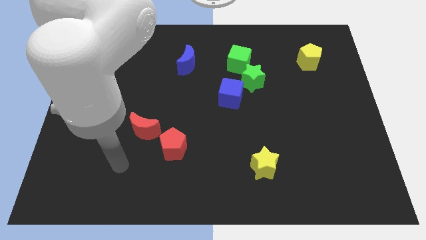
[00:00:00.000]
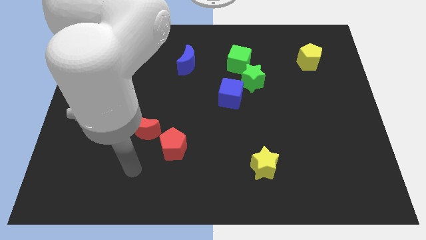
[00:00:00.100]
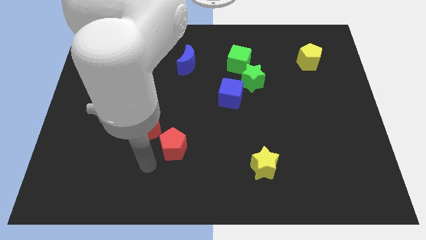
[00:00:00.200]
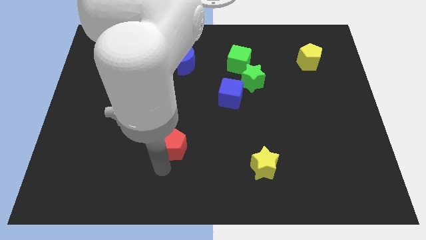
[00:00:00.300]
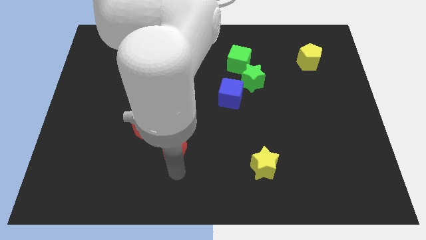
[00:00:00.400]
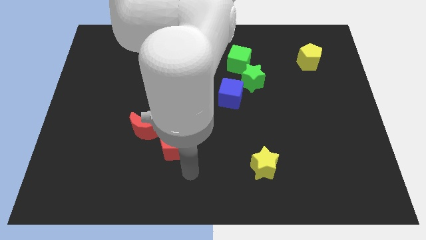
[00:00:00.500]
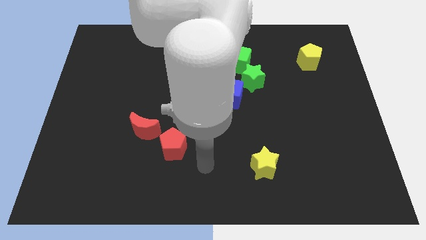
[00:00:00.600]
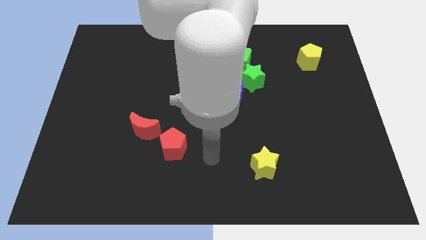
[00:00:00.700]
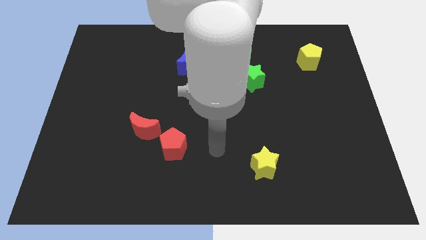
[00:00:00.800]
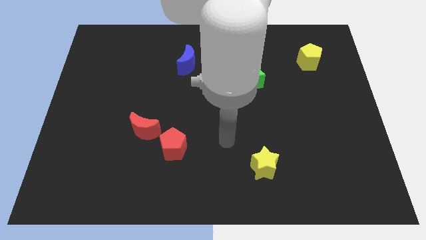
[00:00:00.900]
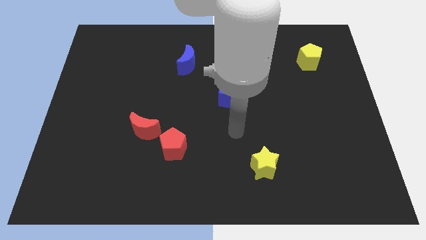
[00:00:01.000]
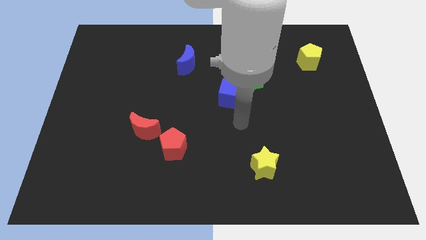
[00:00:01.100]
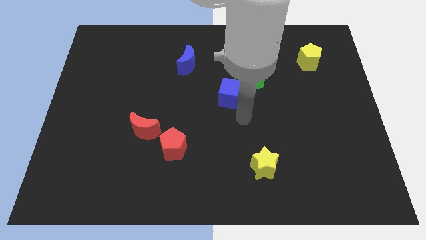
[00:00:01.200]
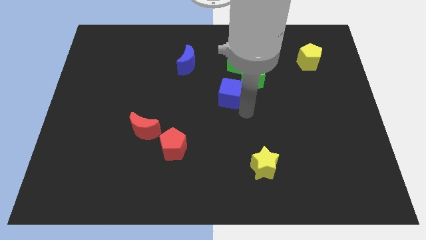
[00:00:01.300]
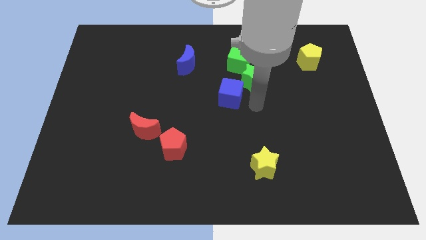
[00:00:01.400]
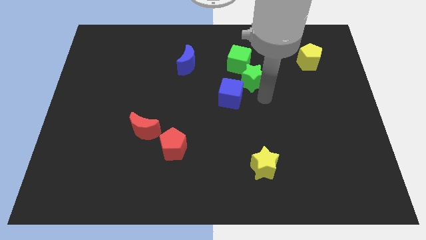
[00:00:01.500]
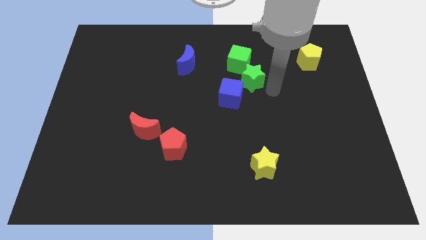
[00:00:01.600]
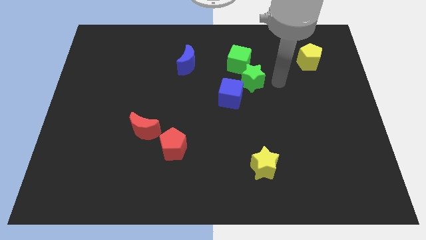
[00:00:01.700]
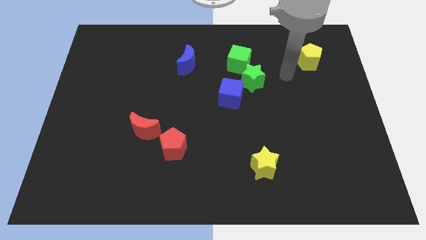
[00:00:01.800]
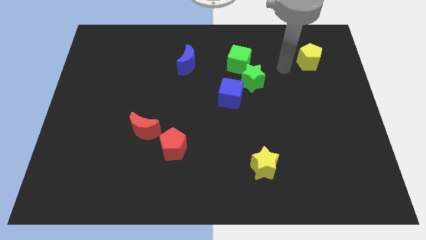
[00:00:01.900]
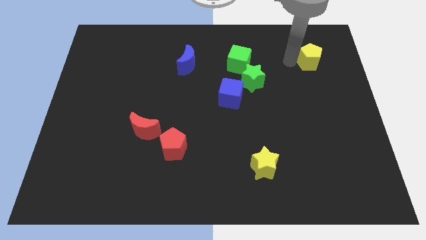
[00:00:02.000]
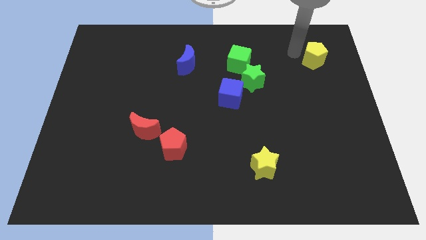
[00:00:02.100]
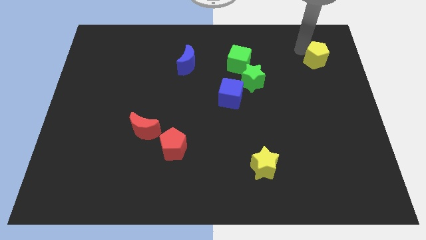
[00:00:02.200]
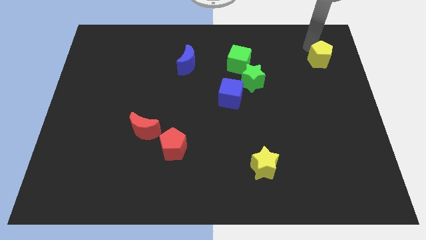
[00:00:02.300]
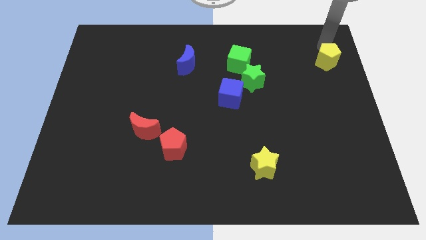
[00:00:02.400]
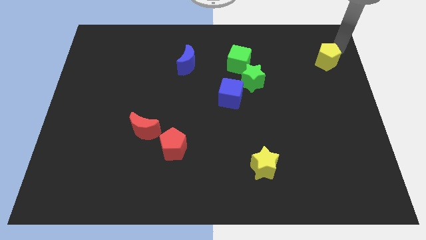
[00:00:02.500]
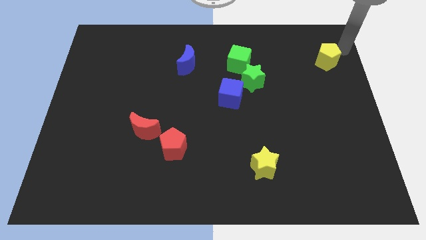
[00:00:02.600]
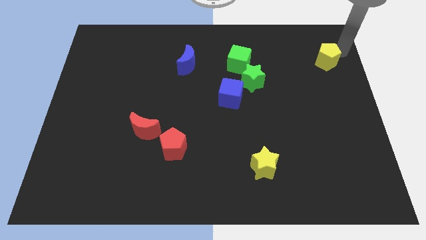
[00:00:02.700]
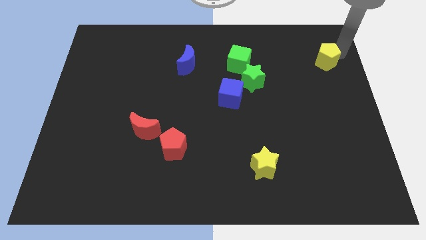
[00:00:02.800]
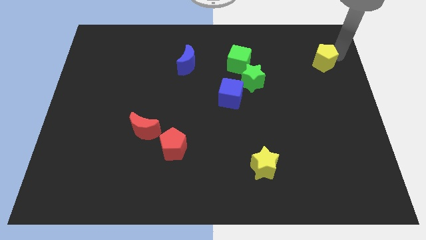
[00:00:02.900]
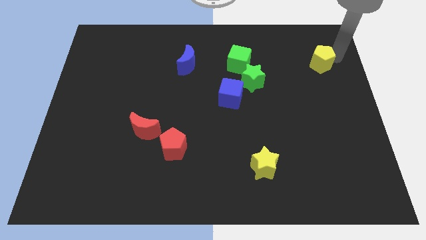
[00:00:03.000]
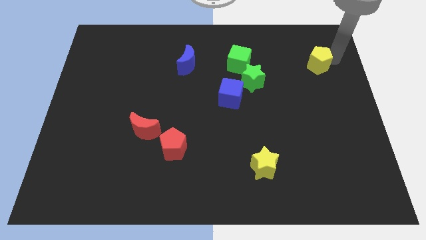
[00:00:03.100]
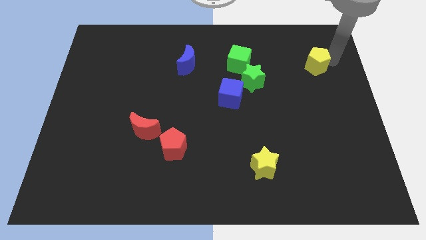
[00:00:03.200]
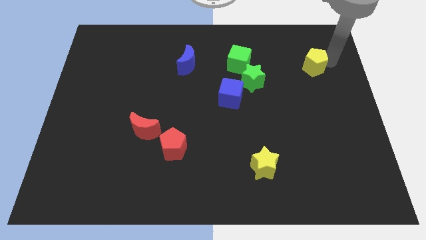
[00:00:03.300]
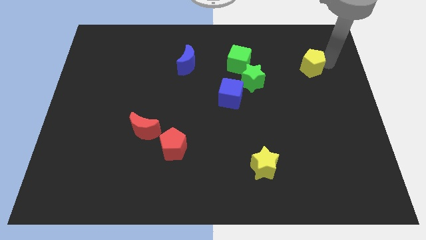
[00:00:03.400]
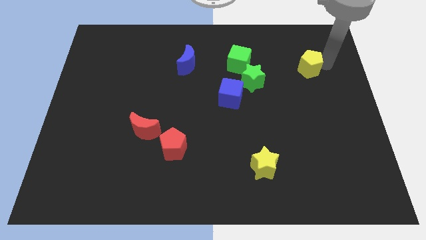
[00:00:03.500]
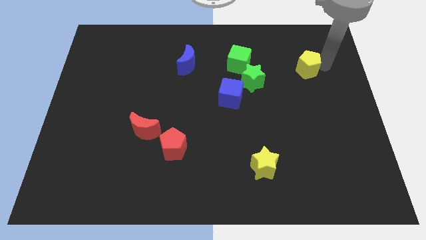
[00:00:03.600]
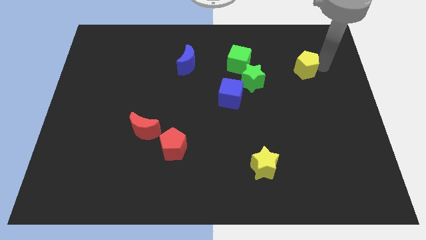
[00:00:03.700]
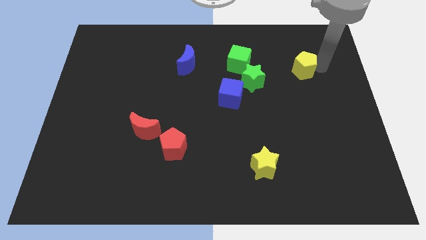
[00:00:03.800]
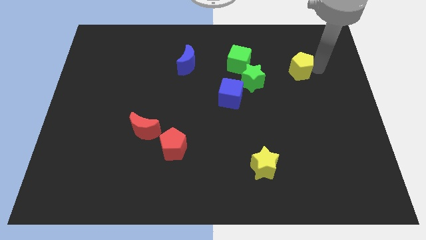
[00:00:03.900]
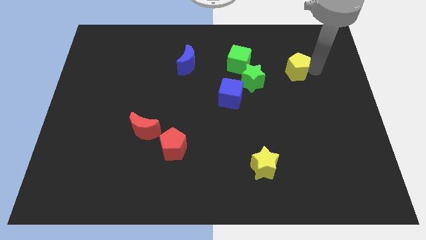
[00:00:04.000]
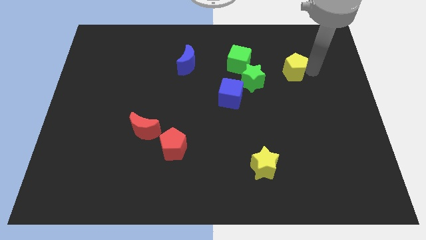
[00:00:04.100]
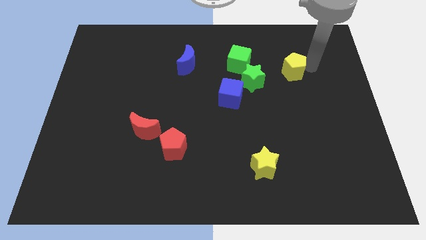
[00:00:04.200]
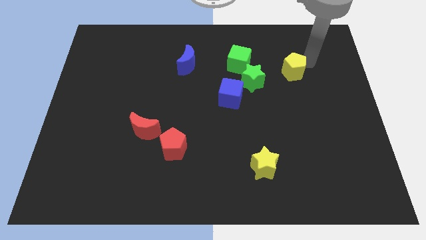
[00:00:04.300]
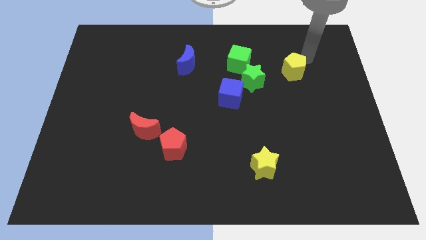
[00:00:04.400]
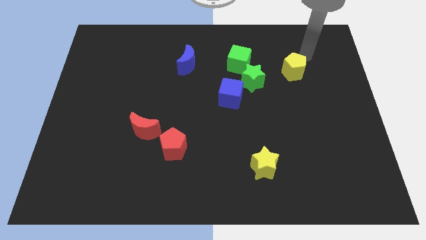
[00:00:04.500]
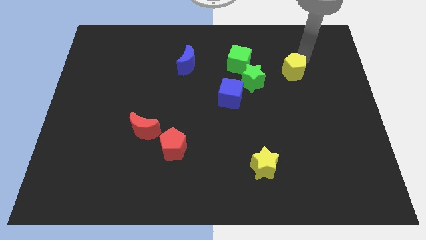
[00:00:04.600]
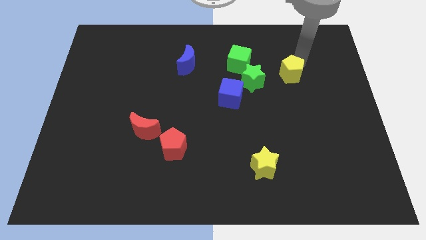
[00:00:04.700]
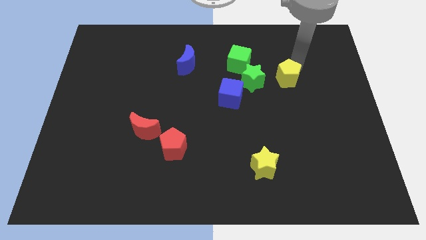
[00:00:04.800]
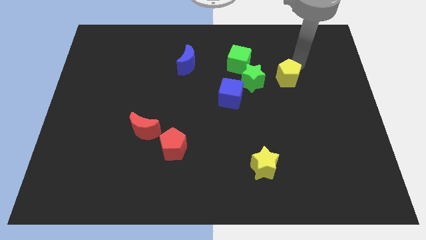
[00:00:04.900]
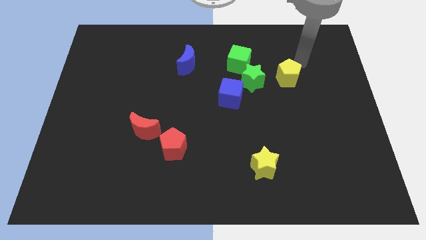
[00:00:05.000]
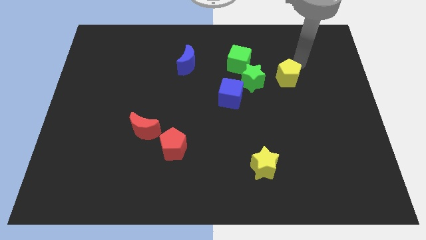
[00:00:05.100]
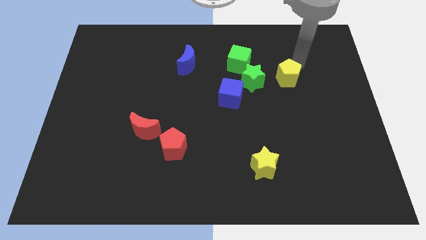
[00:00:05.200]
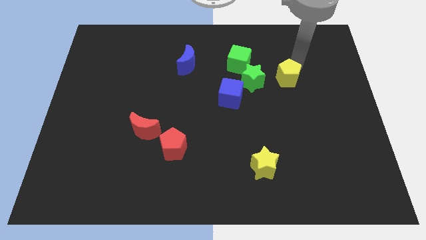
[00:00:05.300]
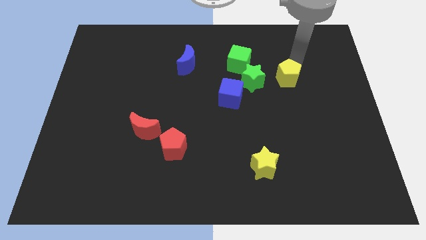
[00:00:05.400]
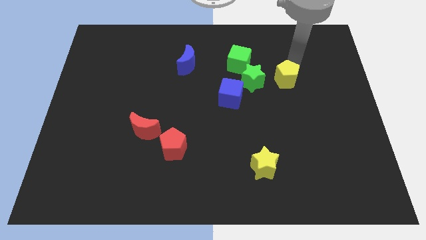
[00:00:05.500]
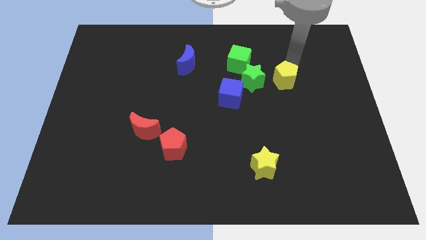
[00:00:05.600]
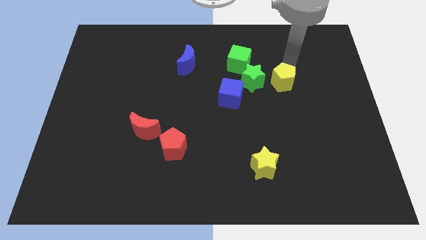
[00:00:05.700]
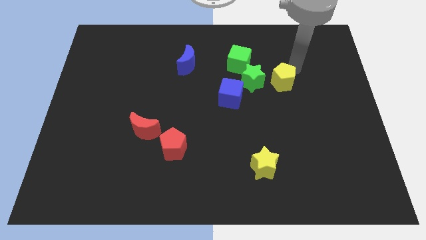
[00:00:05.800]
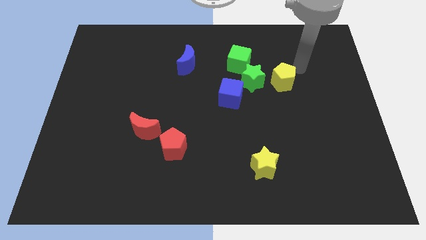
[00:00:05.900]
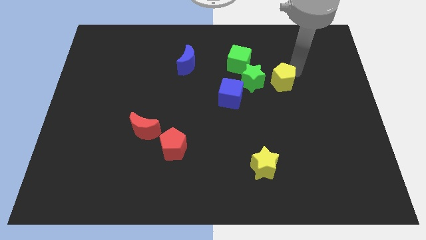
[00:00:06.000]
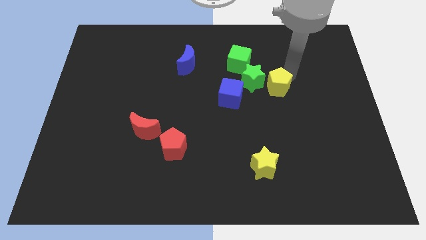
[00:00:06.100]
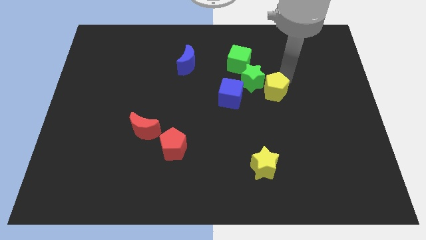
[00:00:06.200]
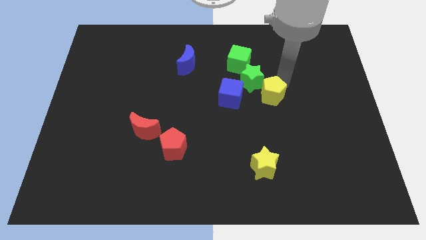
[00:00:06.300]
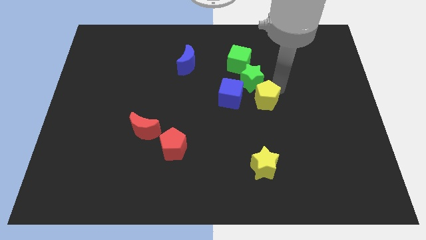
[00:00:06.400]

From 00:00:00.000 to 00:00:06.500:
put the yellow pentagon to the middle

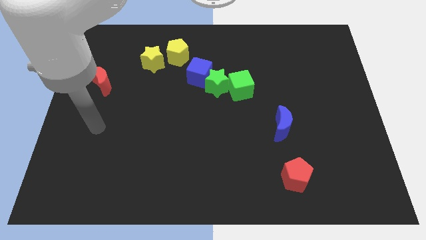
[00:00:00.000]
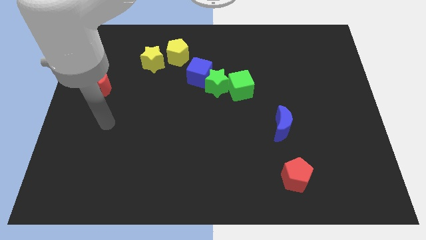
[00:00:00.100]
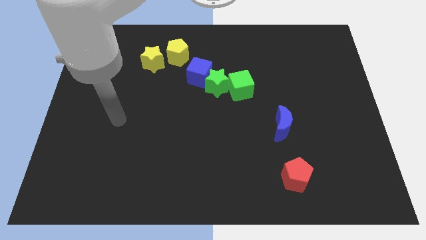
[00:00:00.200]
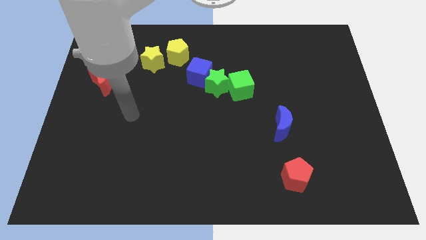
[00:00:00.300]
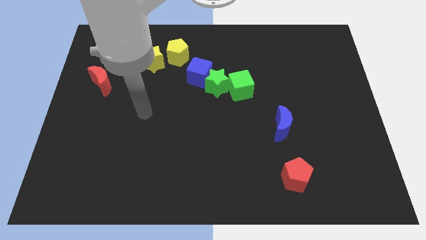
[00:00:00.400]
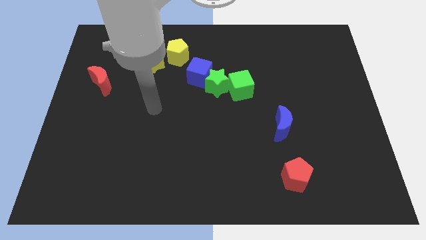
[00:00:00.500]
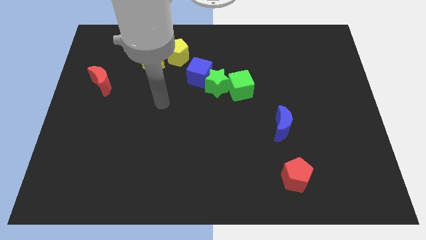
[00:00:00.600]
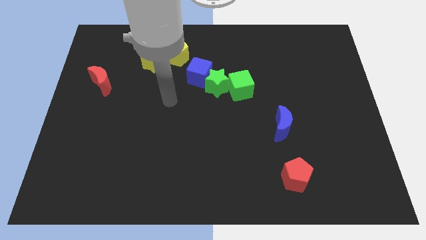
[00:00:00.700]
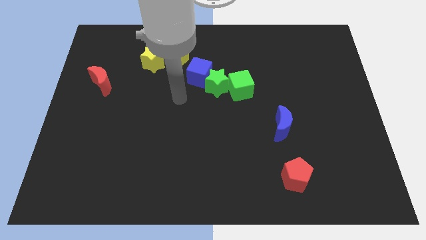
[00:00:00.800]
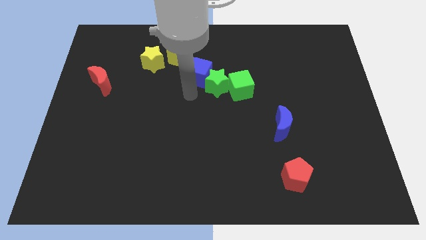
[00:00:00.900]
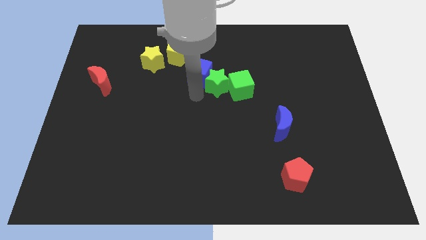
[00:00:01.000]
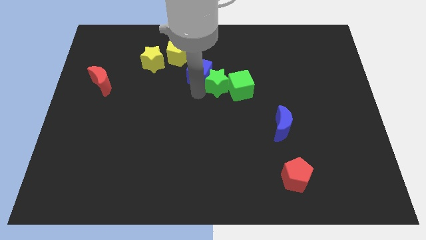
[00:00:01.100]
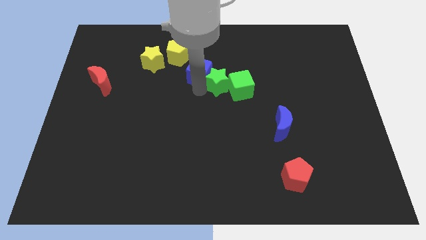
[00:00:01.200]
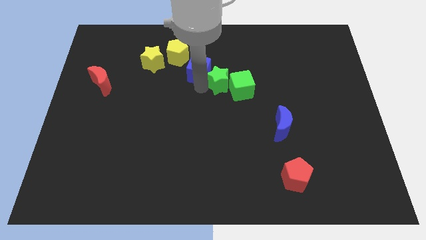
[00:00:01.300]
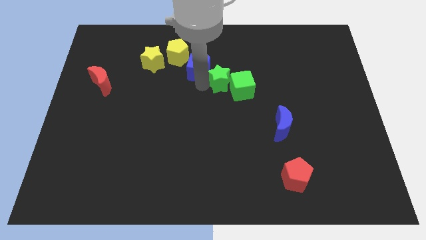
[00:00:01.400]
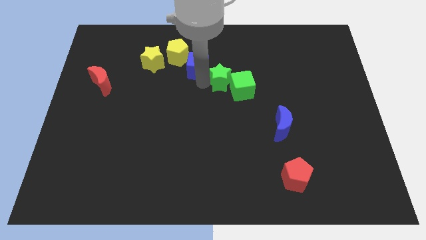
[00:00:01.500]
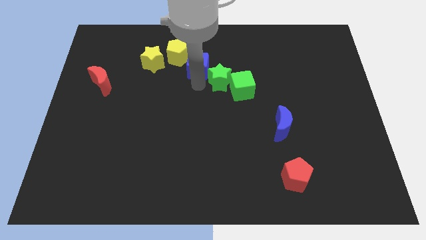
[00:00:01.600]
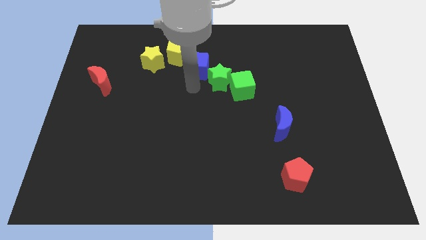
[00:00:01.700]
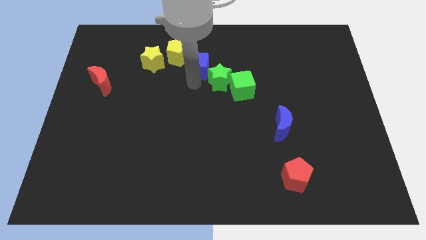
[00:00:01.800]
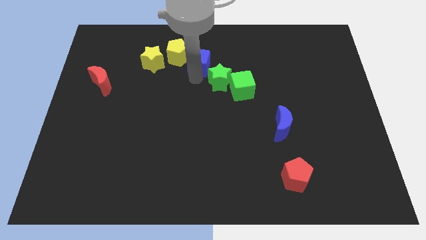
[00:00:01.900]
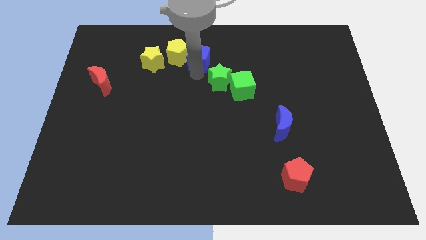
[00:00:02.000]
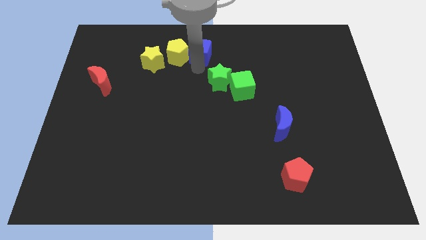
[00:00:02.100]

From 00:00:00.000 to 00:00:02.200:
put the blue cube to the top side
